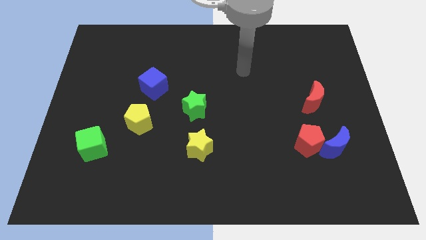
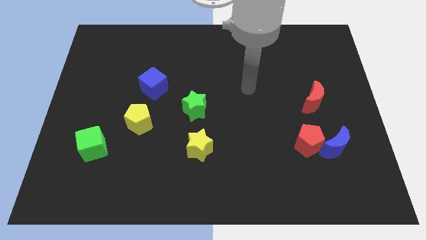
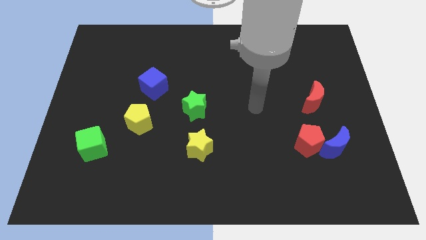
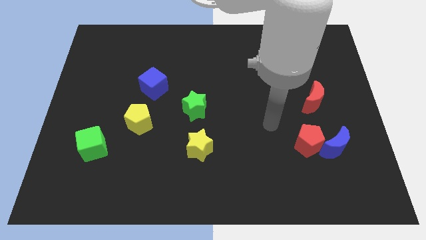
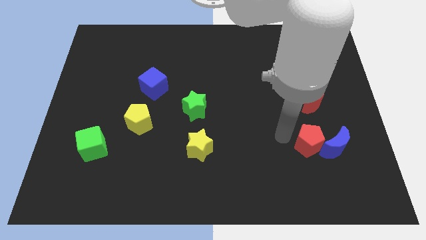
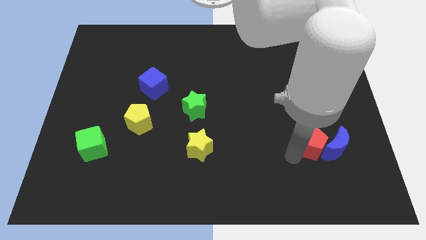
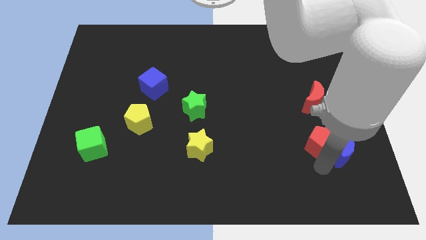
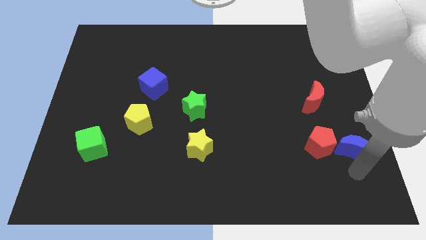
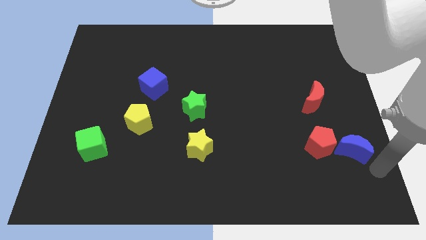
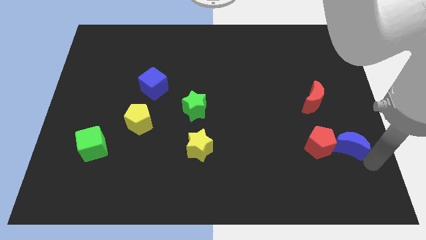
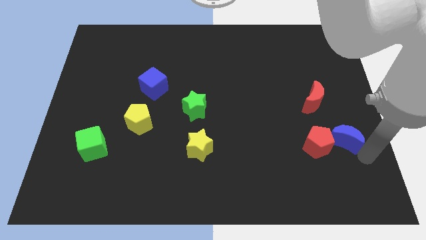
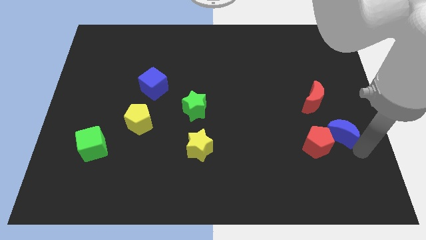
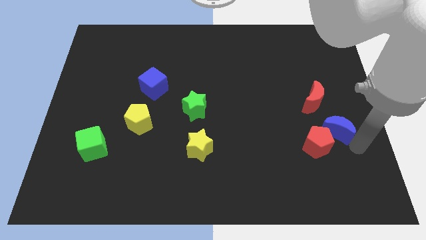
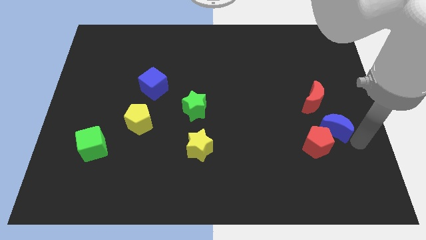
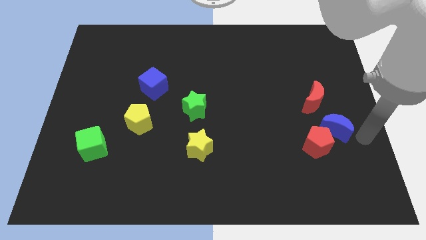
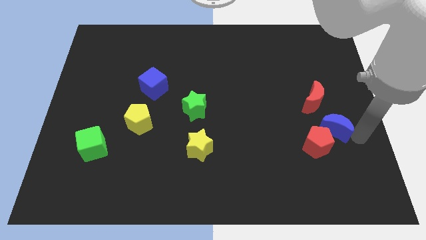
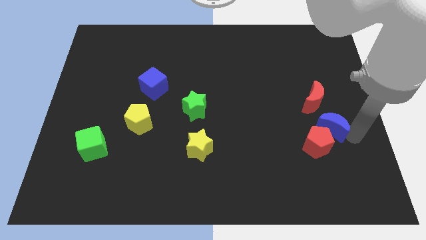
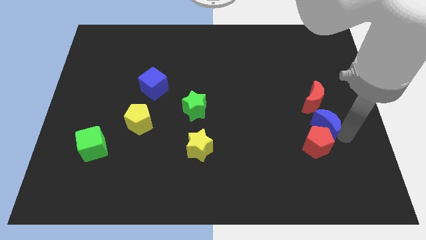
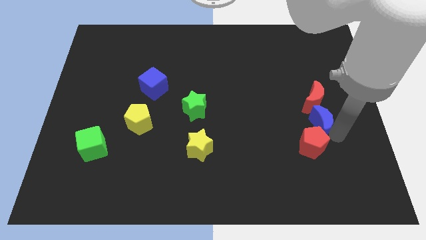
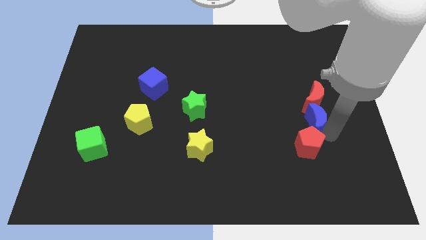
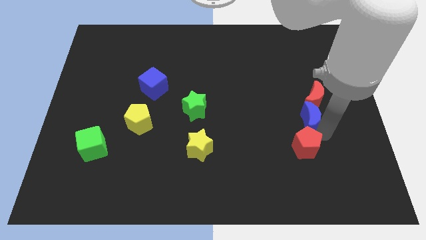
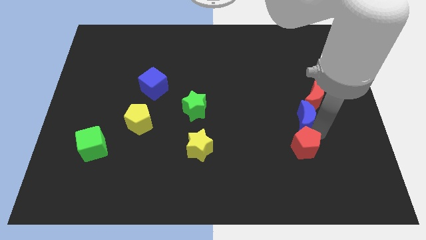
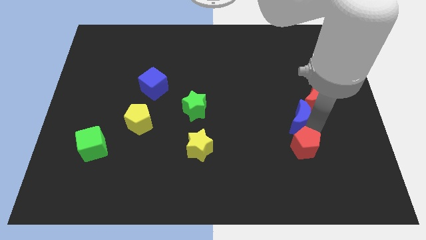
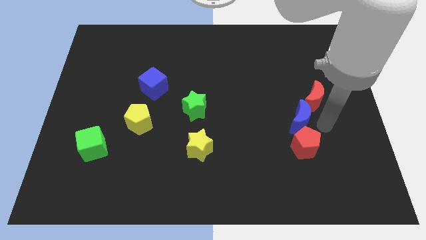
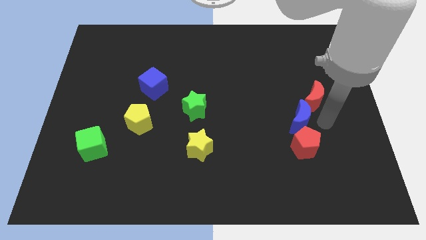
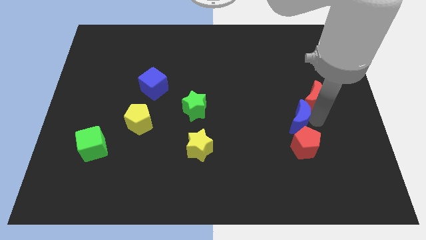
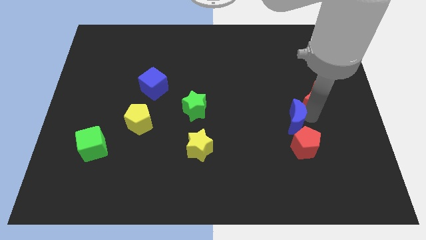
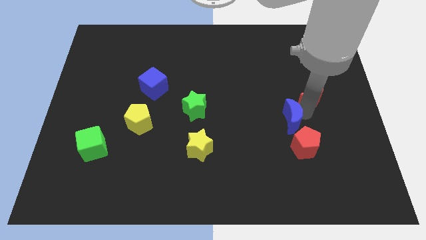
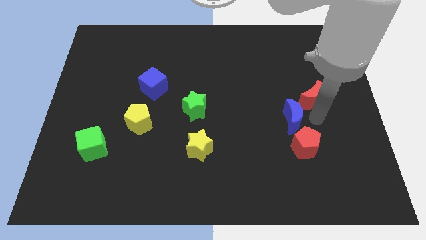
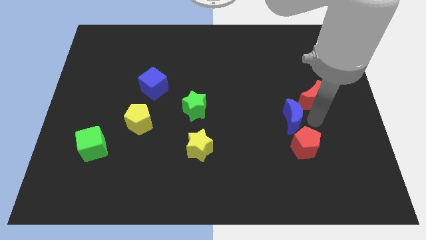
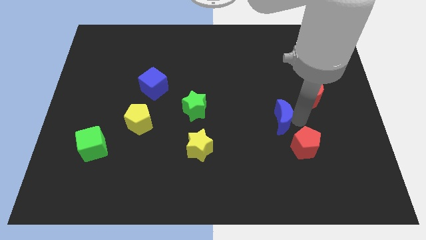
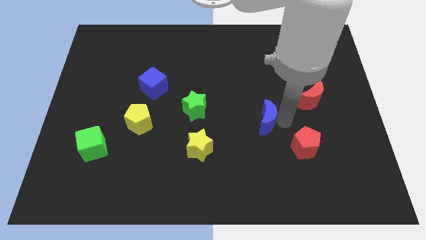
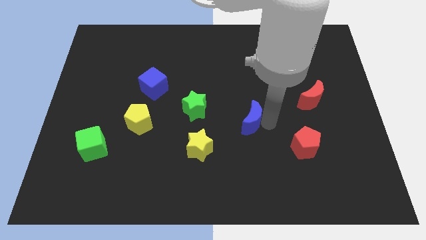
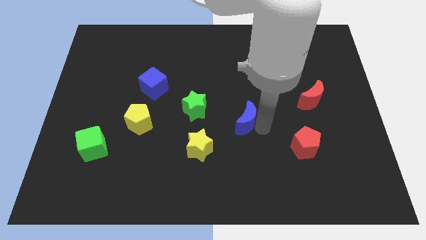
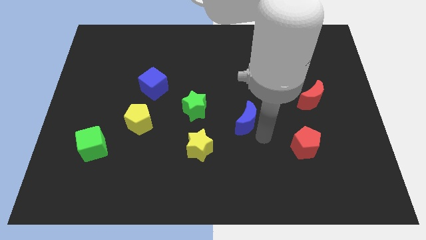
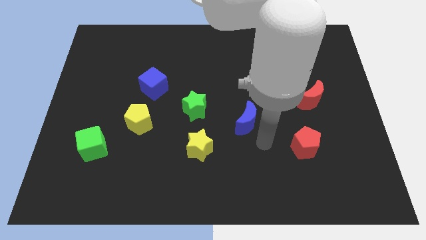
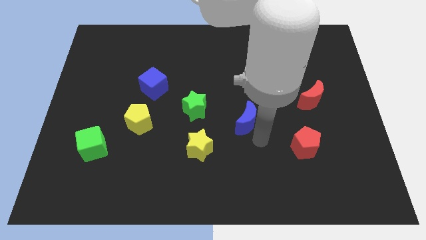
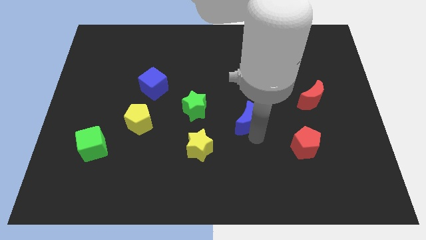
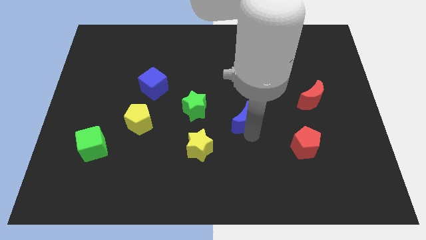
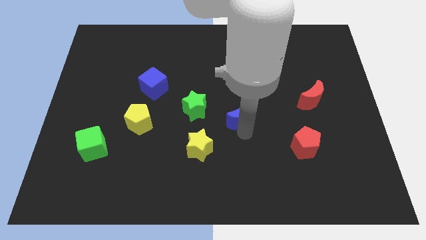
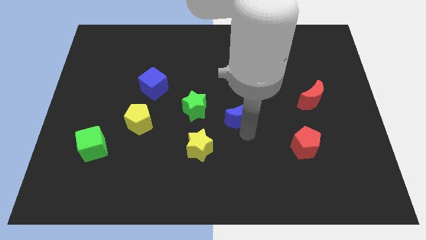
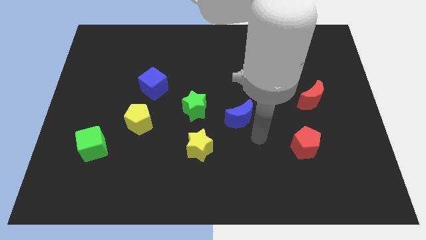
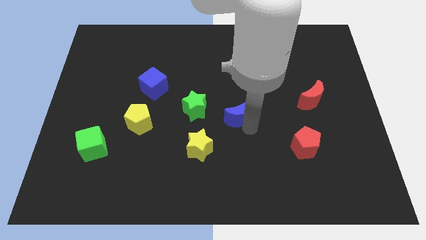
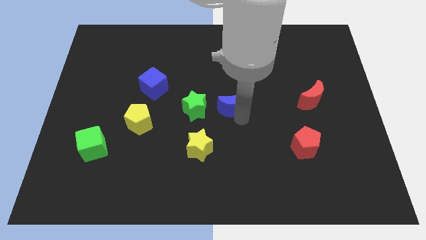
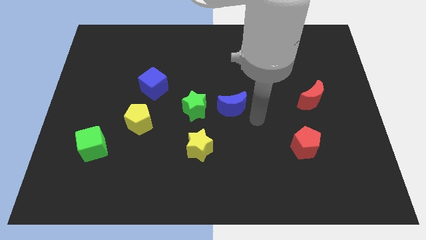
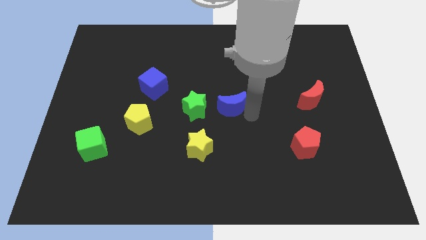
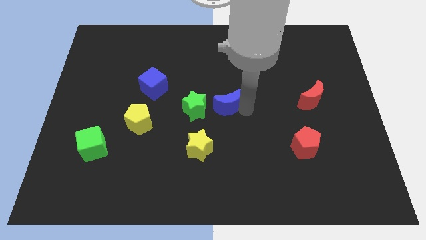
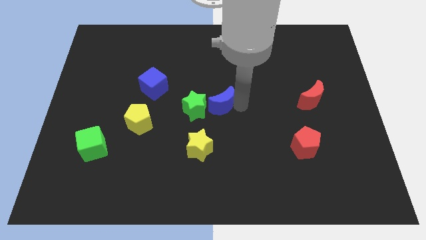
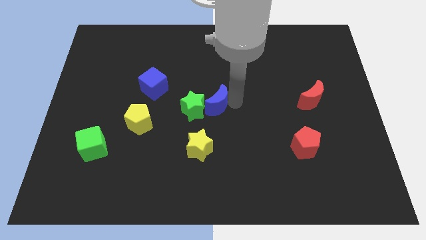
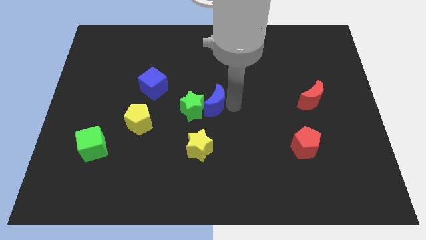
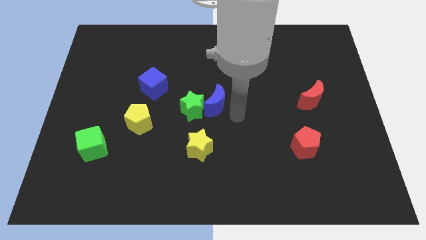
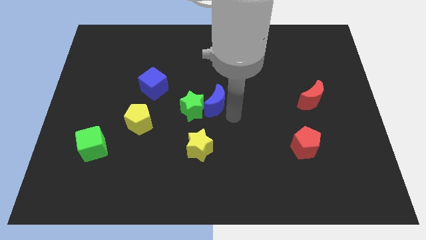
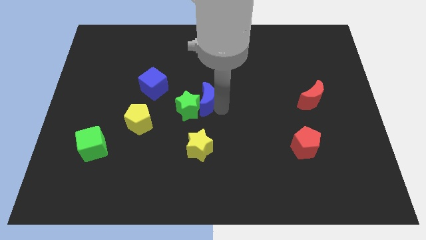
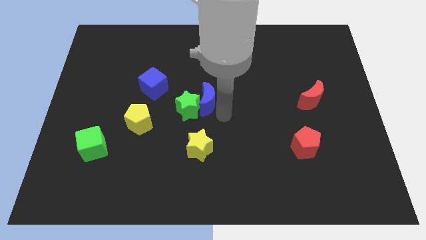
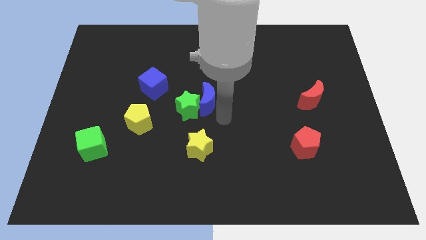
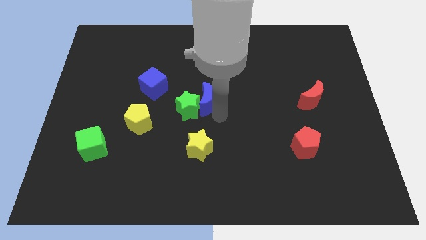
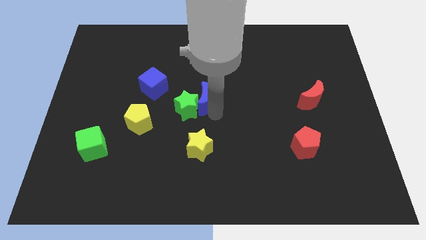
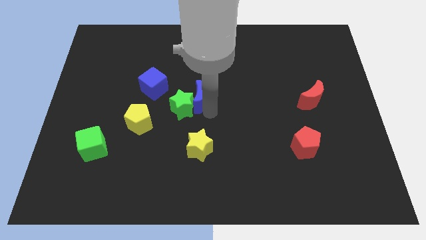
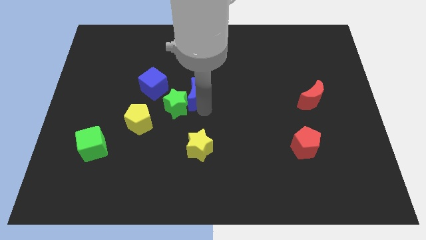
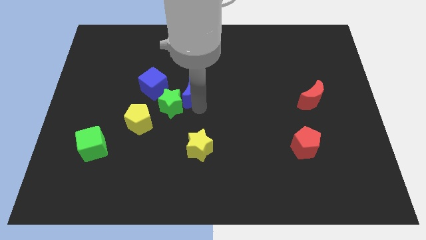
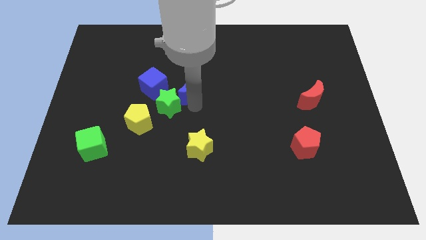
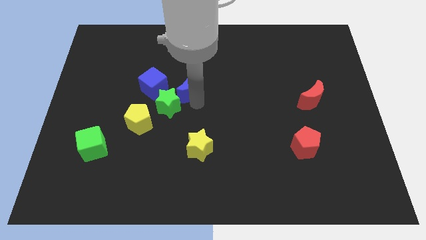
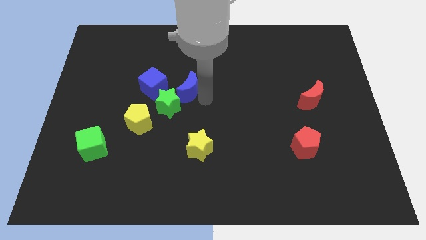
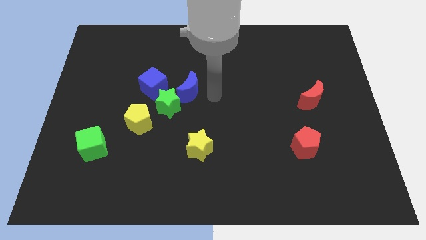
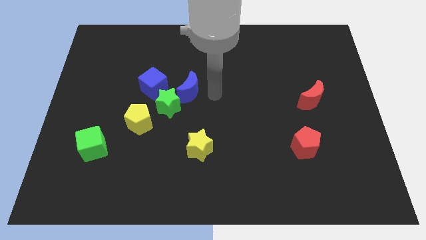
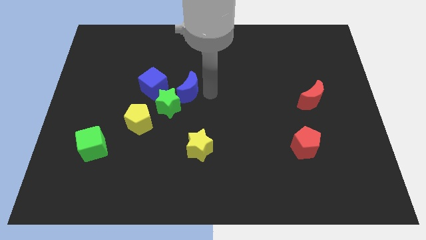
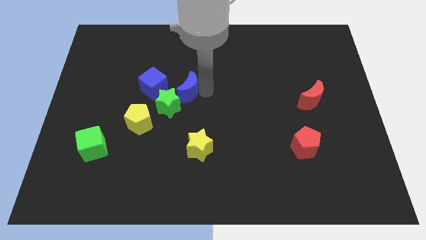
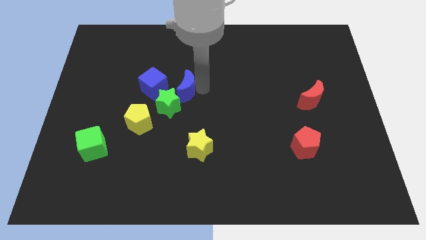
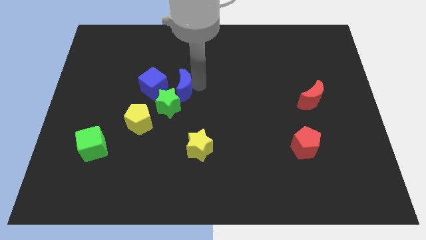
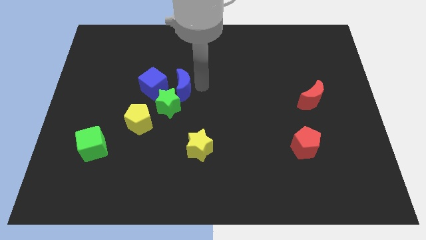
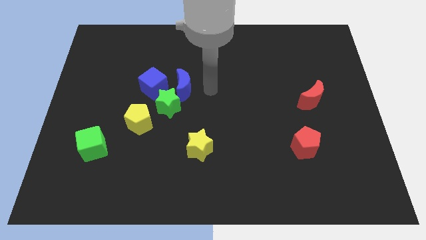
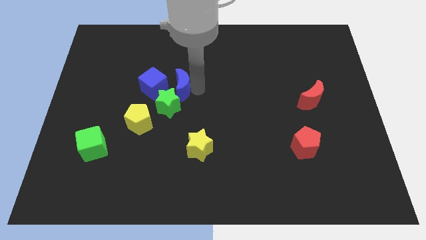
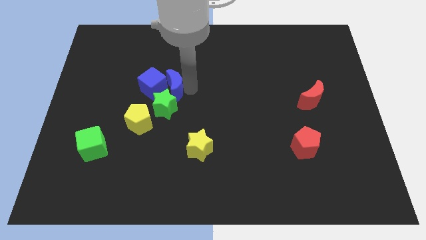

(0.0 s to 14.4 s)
put the blue moon close to the blue cube
